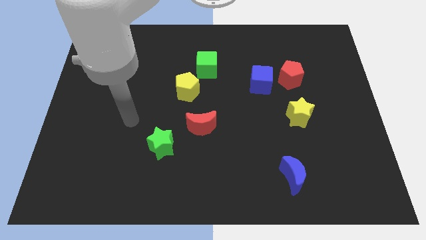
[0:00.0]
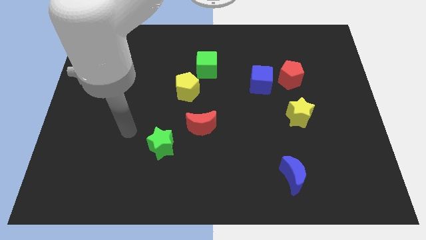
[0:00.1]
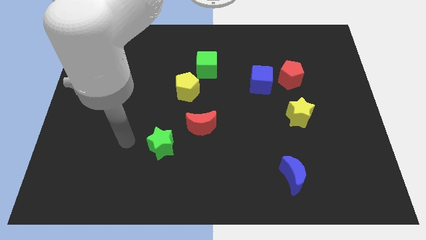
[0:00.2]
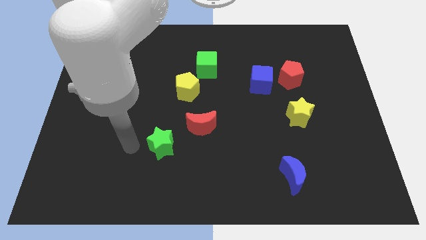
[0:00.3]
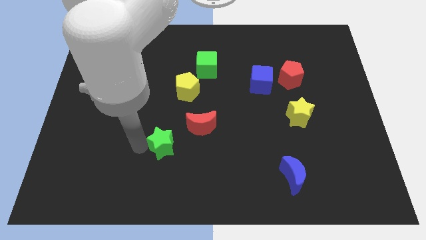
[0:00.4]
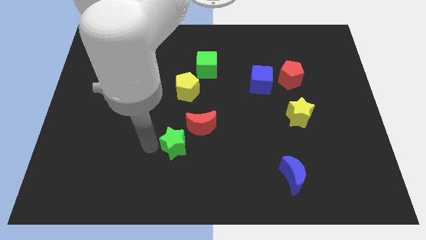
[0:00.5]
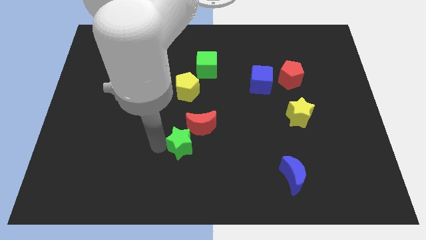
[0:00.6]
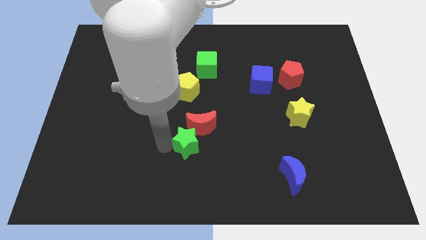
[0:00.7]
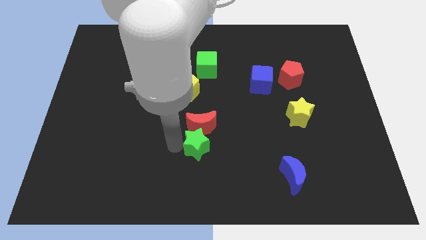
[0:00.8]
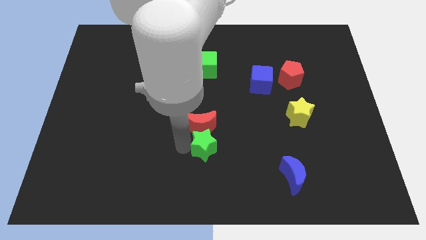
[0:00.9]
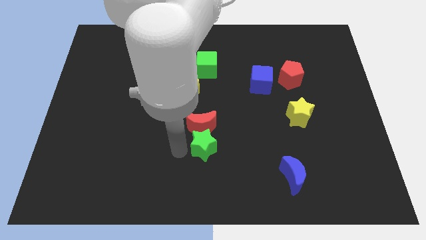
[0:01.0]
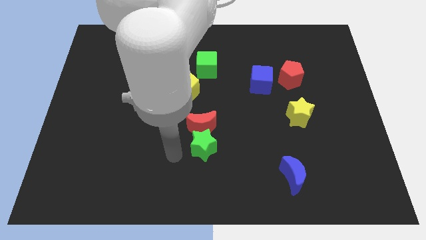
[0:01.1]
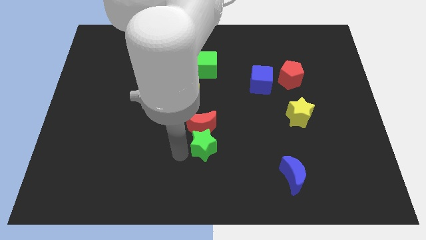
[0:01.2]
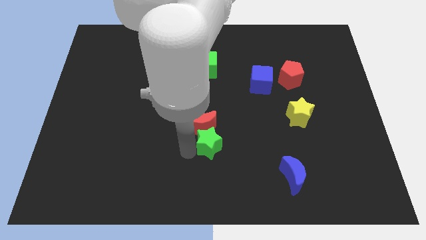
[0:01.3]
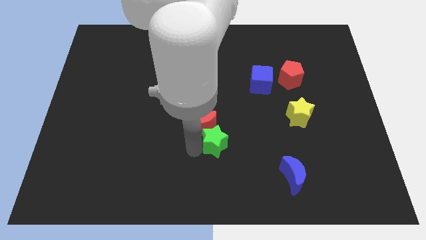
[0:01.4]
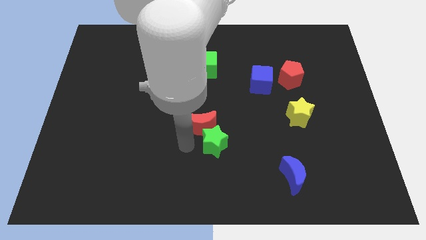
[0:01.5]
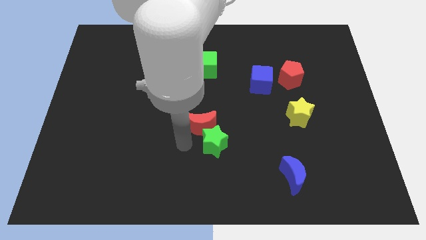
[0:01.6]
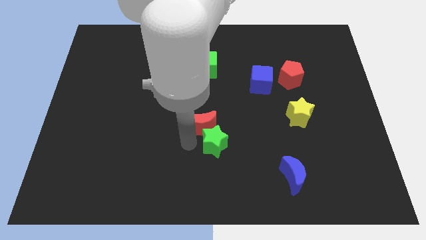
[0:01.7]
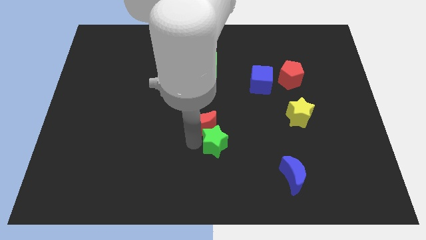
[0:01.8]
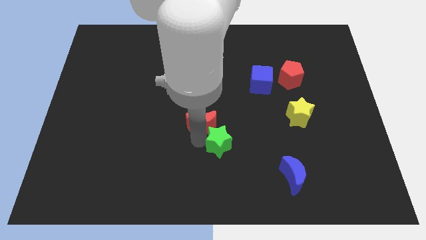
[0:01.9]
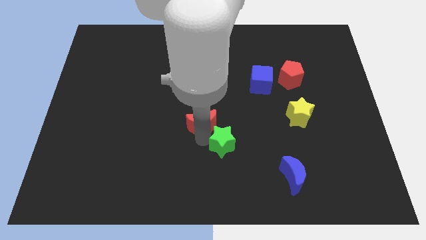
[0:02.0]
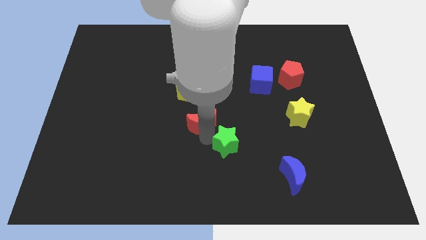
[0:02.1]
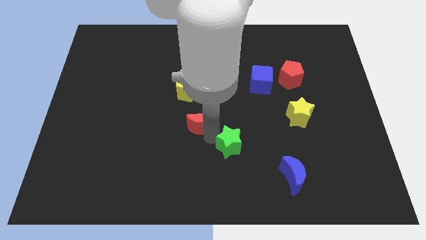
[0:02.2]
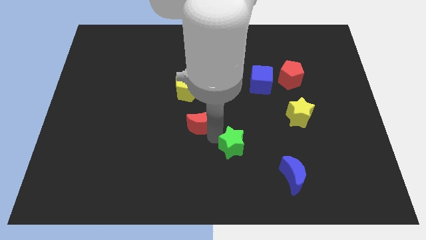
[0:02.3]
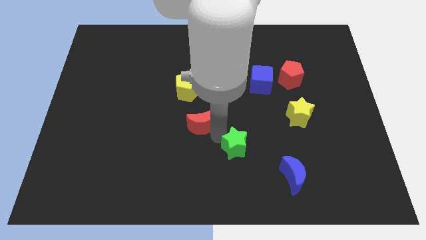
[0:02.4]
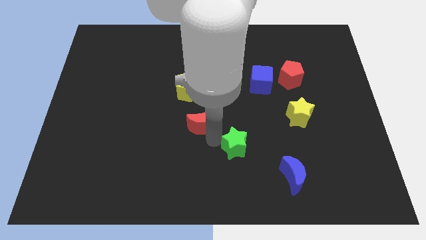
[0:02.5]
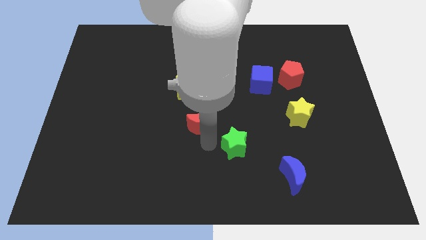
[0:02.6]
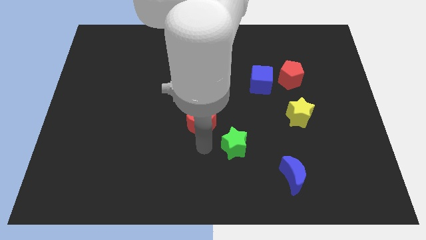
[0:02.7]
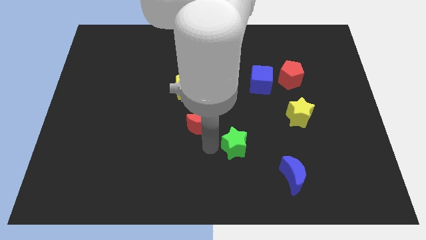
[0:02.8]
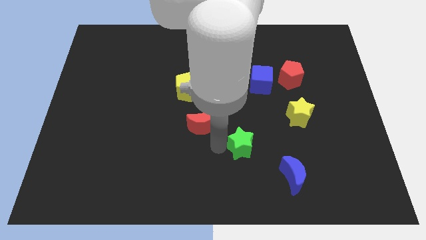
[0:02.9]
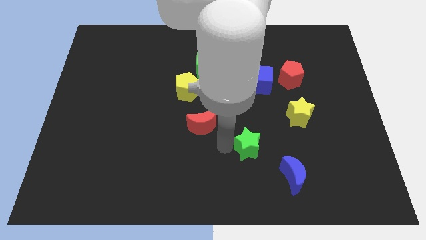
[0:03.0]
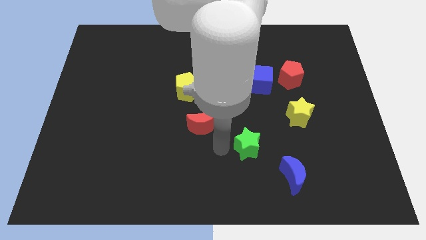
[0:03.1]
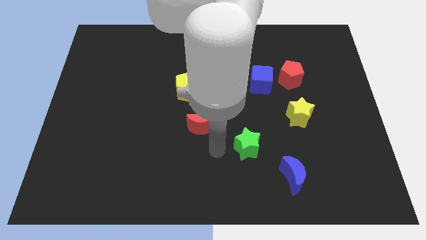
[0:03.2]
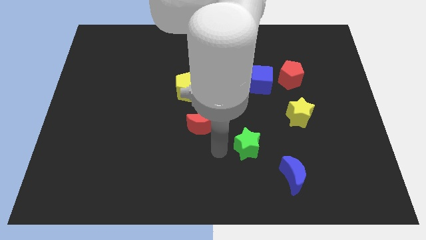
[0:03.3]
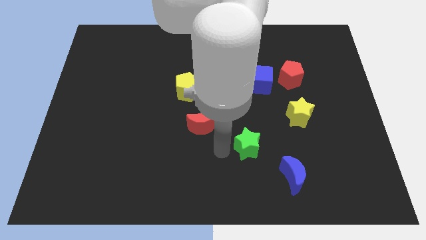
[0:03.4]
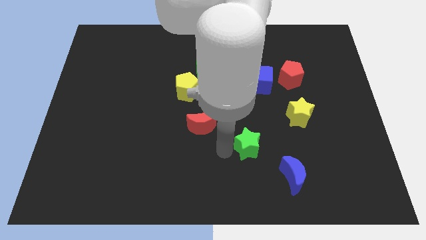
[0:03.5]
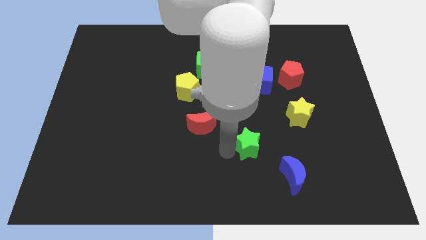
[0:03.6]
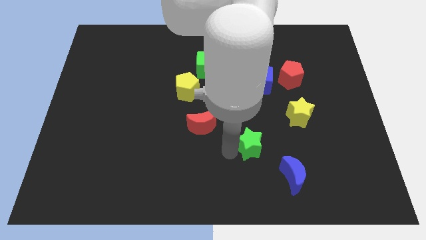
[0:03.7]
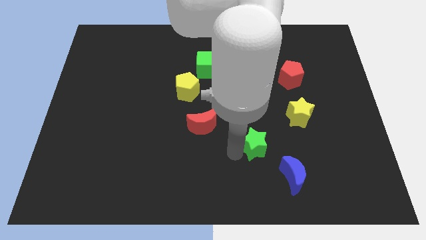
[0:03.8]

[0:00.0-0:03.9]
move the green star right

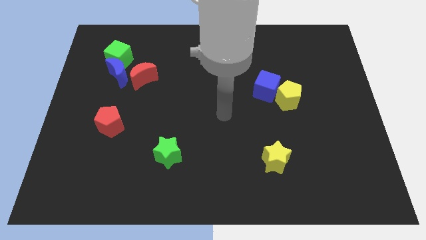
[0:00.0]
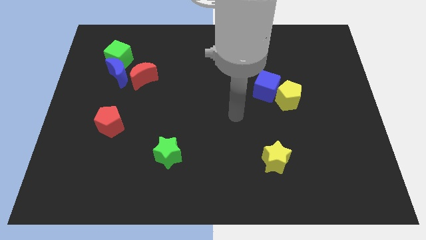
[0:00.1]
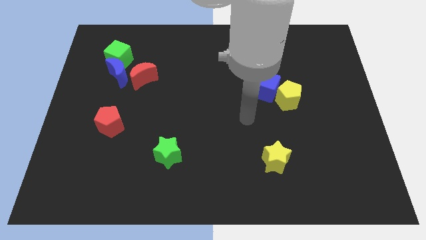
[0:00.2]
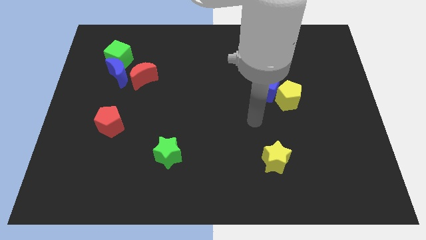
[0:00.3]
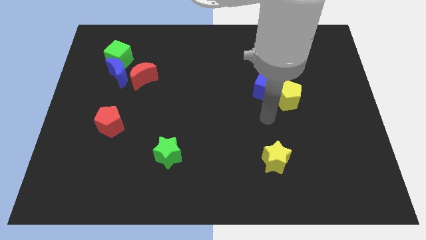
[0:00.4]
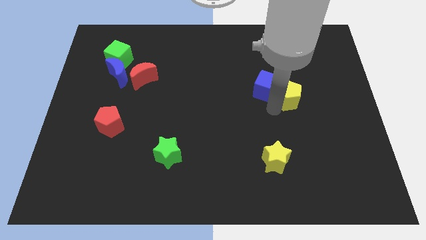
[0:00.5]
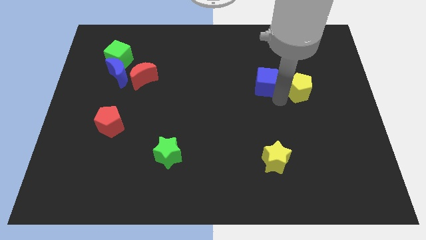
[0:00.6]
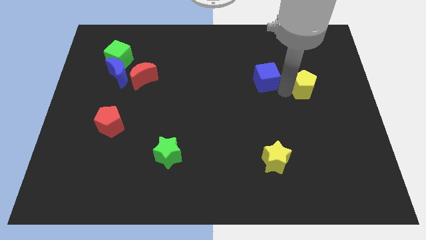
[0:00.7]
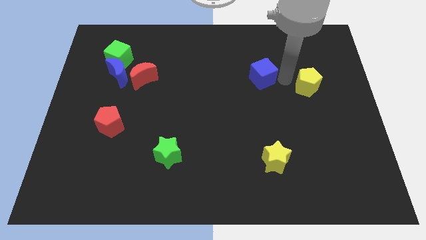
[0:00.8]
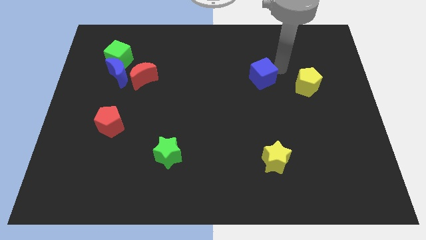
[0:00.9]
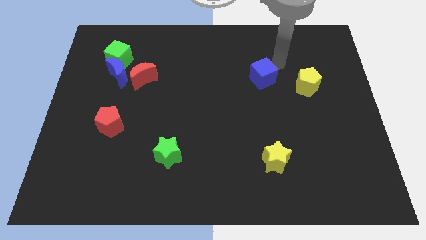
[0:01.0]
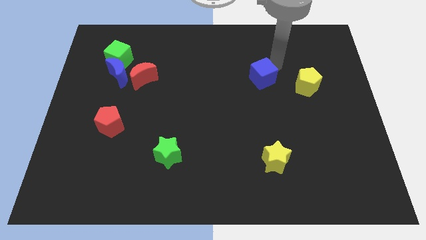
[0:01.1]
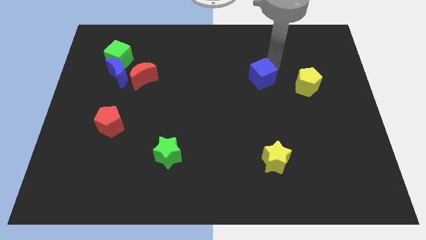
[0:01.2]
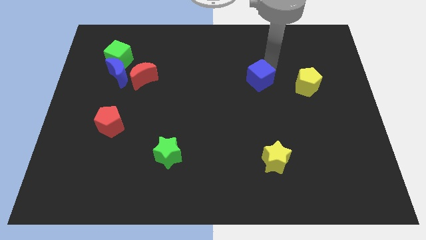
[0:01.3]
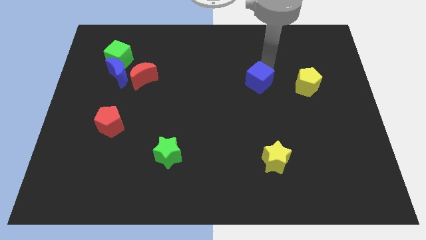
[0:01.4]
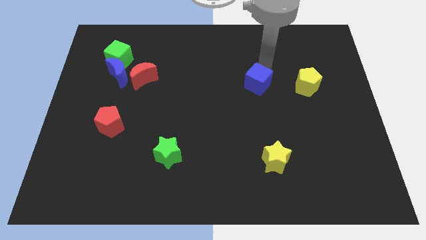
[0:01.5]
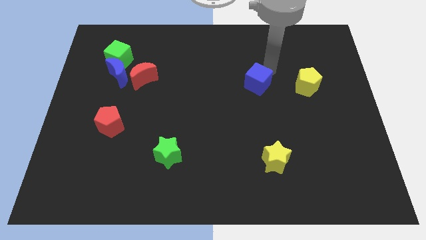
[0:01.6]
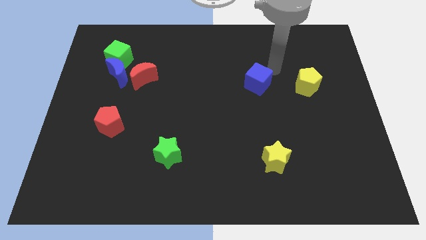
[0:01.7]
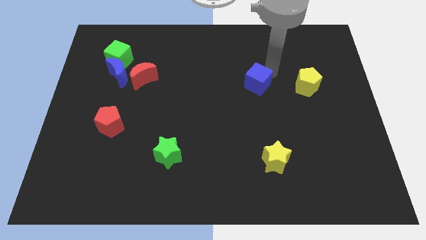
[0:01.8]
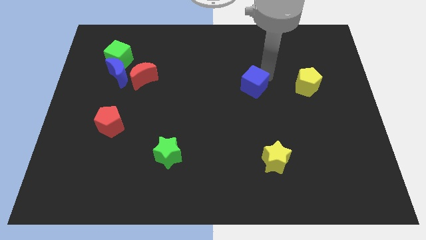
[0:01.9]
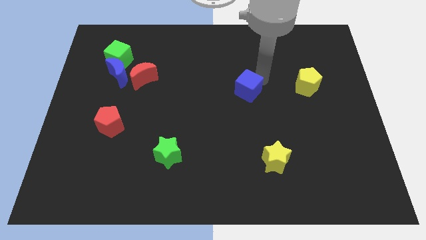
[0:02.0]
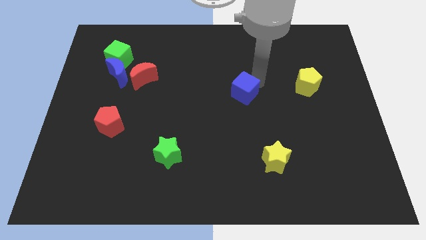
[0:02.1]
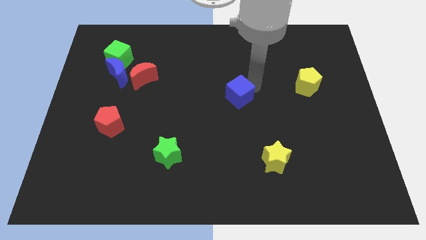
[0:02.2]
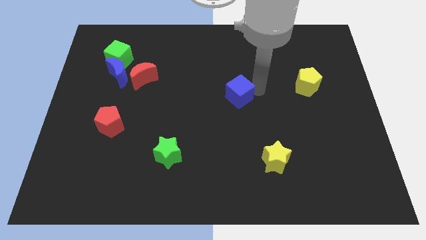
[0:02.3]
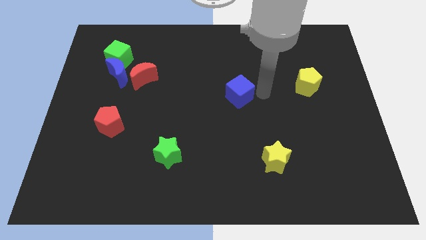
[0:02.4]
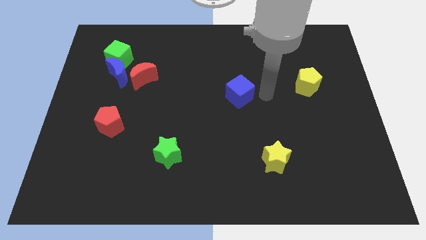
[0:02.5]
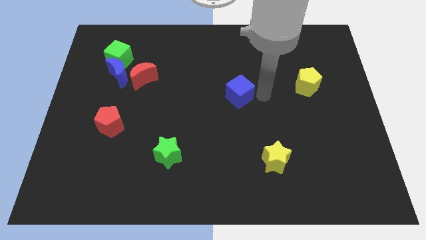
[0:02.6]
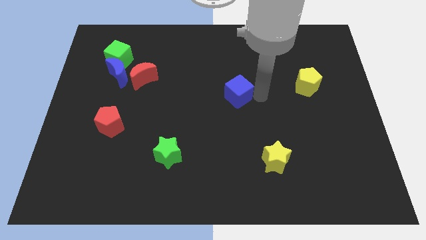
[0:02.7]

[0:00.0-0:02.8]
slide the blue cube left a little bit

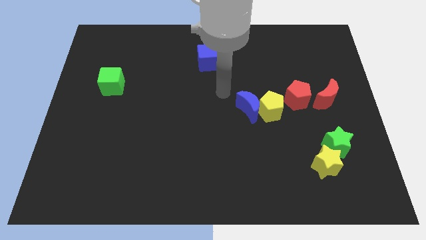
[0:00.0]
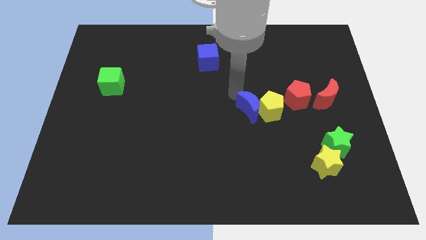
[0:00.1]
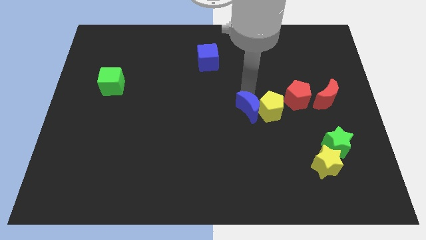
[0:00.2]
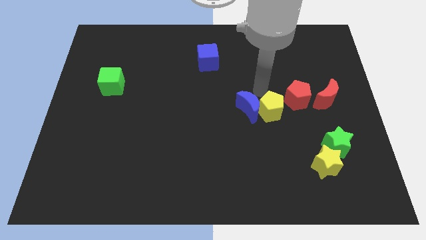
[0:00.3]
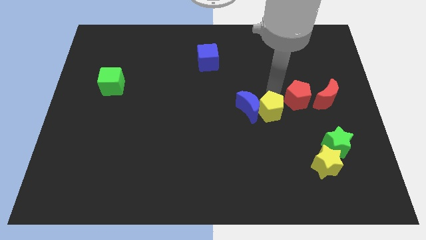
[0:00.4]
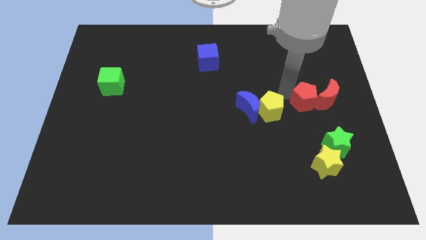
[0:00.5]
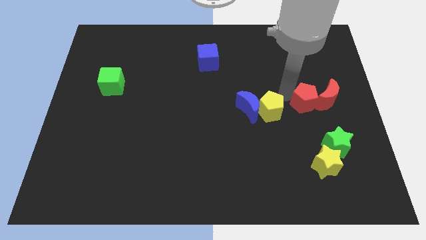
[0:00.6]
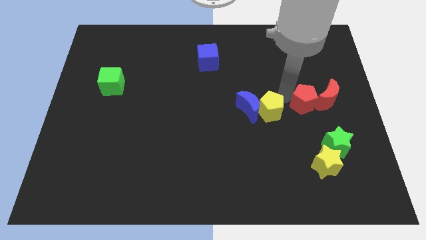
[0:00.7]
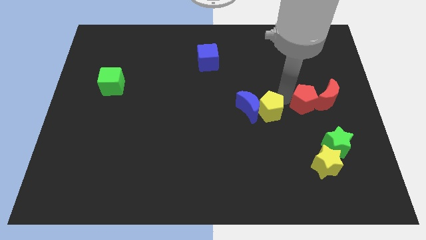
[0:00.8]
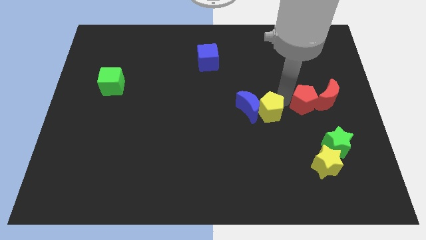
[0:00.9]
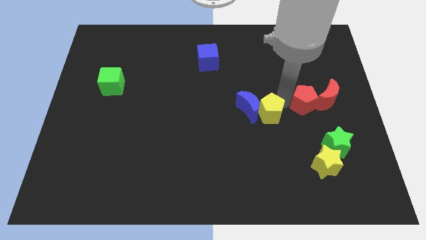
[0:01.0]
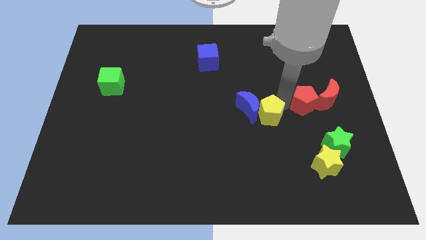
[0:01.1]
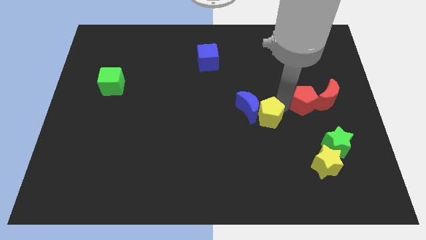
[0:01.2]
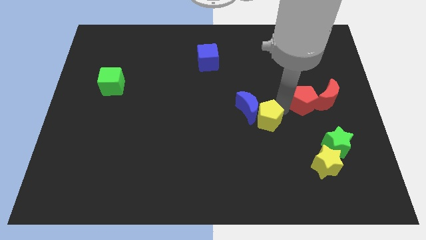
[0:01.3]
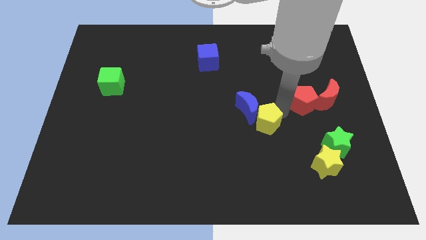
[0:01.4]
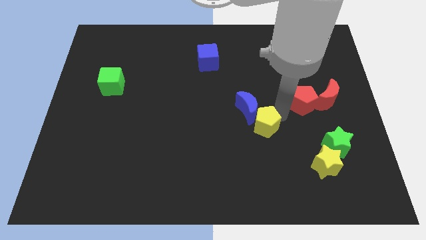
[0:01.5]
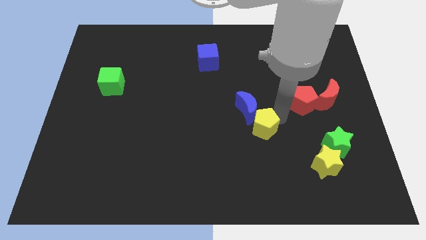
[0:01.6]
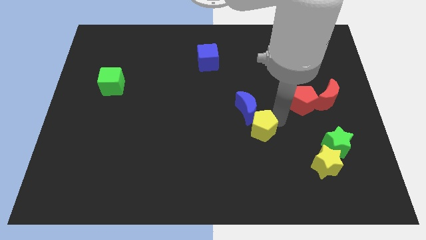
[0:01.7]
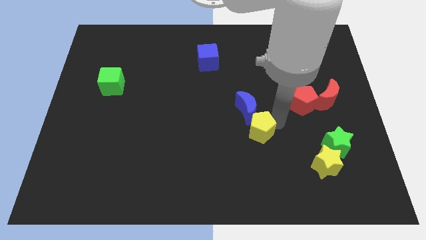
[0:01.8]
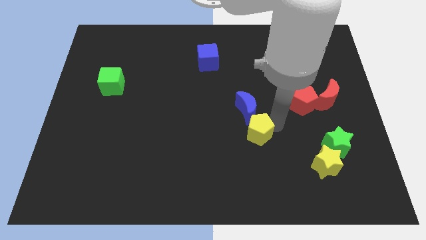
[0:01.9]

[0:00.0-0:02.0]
move the yellow pentagon diagonally down and to the left a little bit
